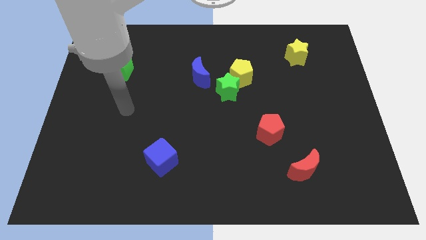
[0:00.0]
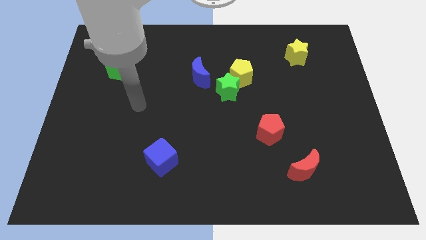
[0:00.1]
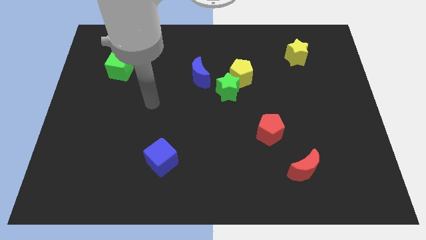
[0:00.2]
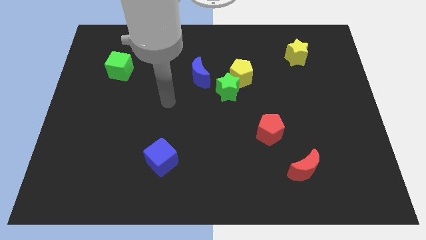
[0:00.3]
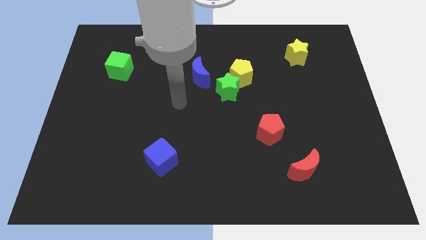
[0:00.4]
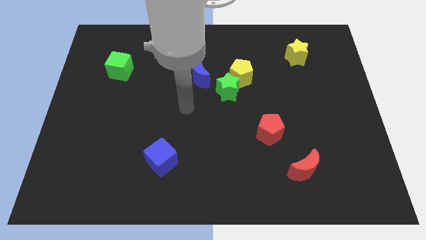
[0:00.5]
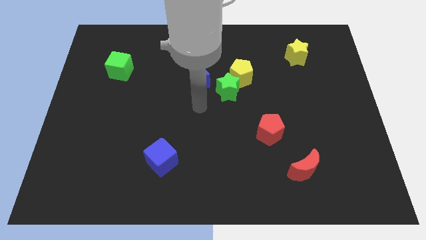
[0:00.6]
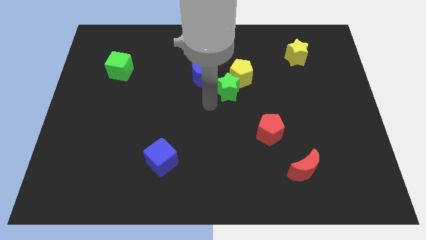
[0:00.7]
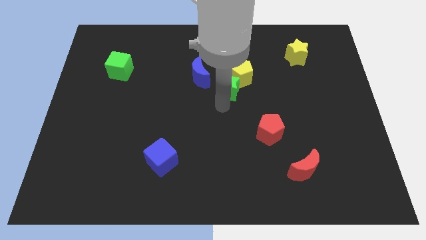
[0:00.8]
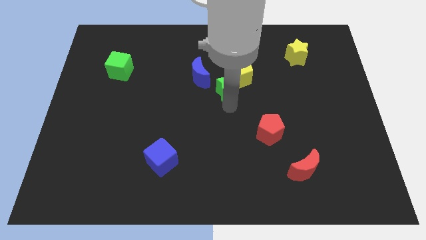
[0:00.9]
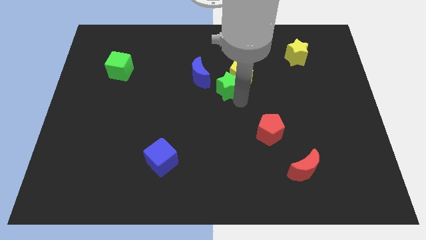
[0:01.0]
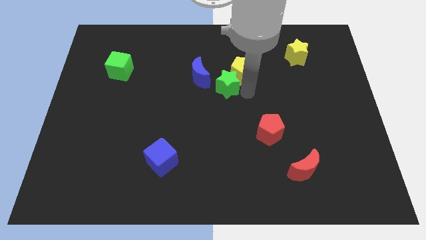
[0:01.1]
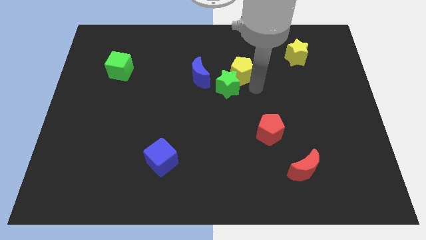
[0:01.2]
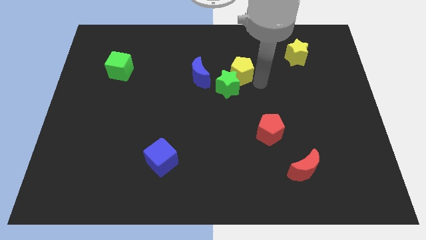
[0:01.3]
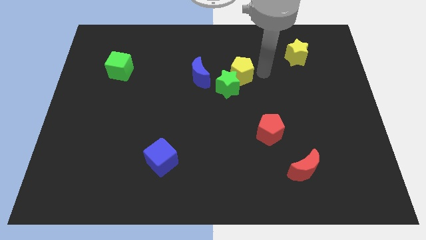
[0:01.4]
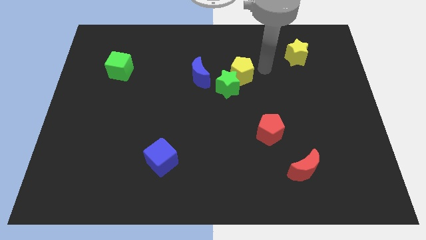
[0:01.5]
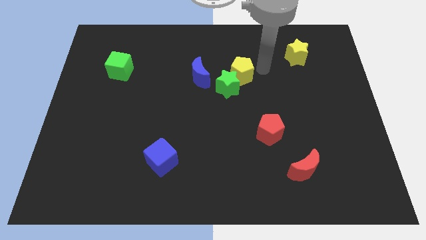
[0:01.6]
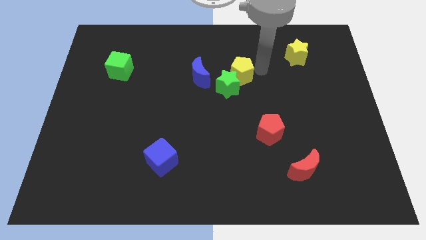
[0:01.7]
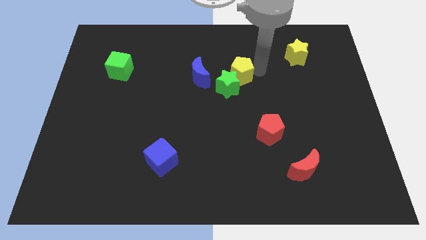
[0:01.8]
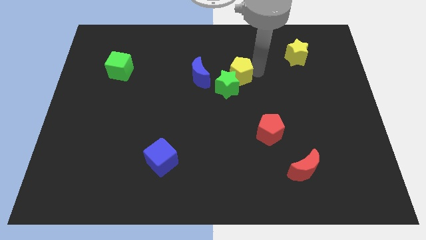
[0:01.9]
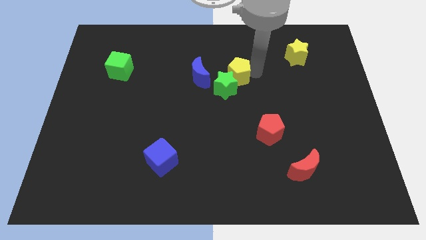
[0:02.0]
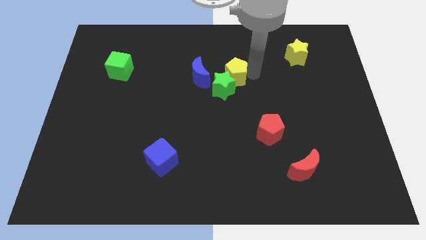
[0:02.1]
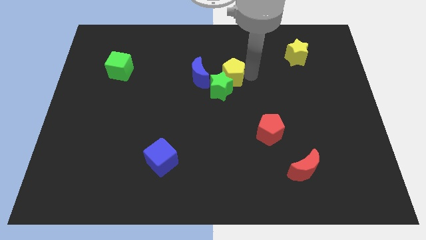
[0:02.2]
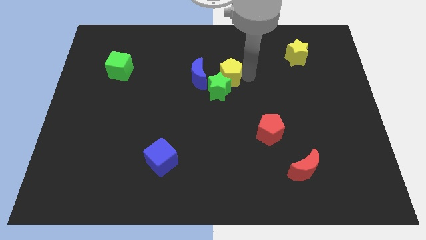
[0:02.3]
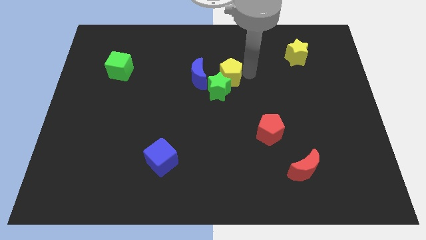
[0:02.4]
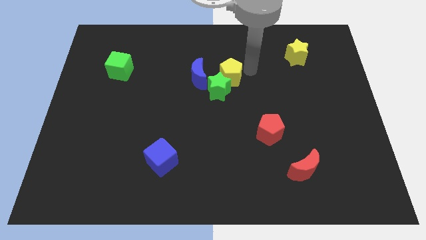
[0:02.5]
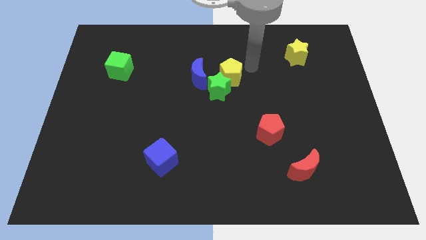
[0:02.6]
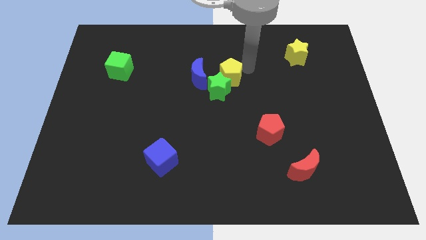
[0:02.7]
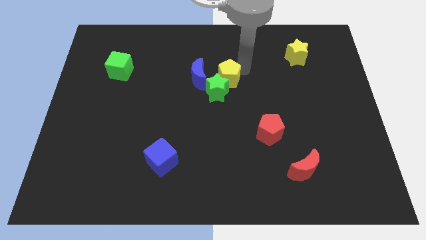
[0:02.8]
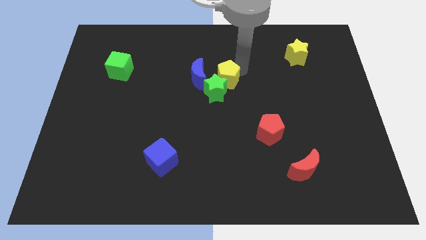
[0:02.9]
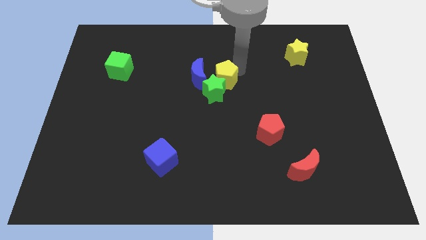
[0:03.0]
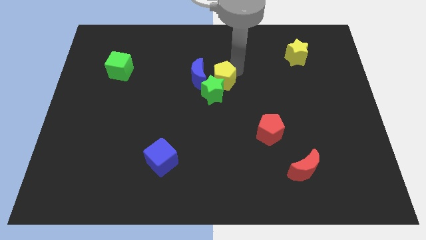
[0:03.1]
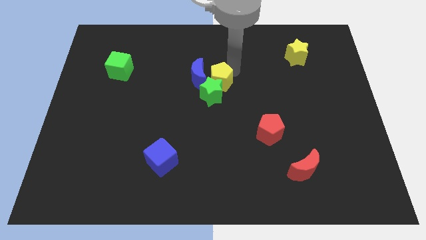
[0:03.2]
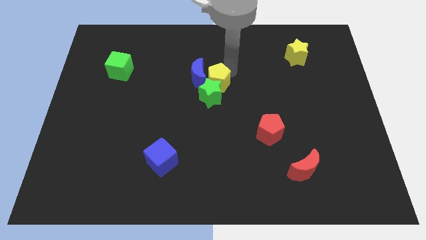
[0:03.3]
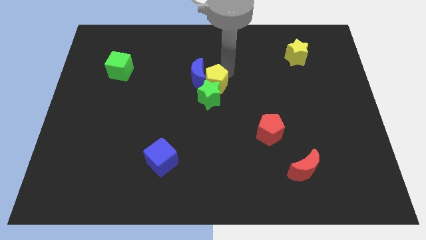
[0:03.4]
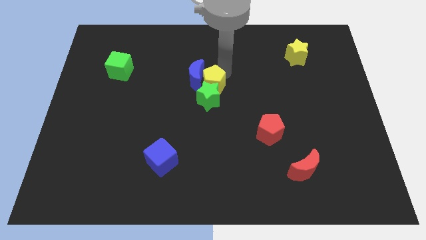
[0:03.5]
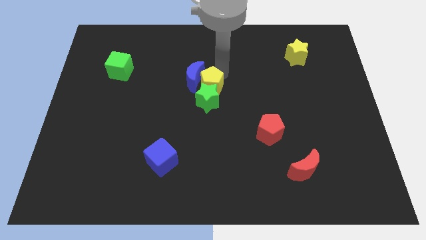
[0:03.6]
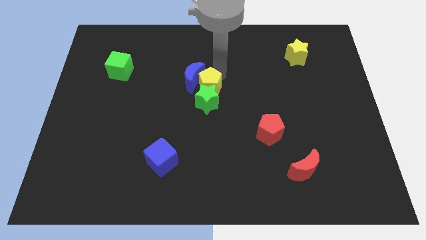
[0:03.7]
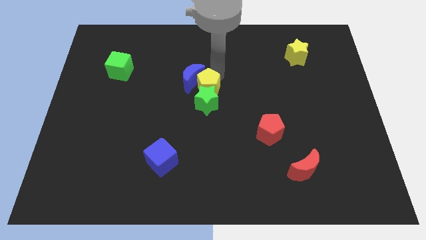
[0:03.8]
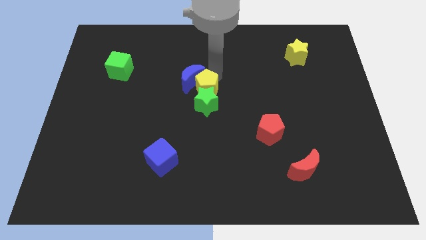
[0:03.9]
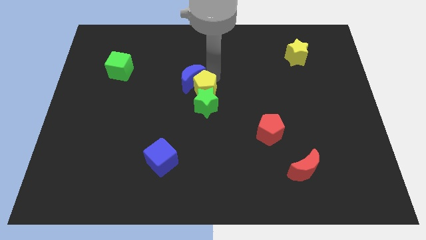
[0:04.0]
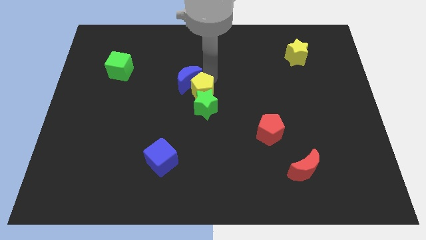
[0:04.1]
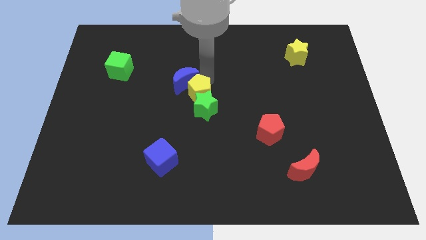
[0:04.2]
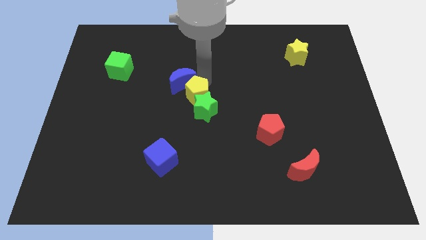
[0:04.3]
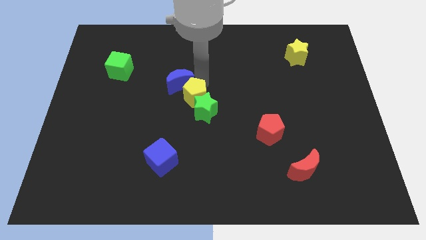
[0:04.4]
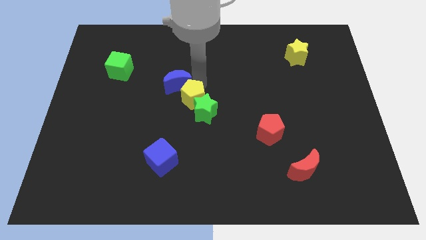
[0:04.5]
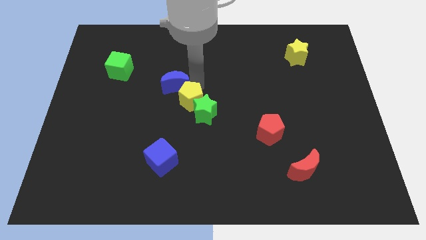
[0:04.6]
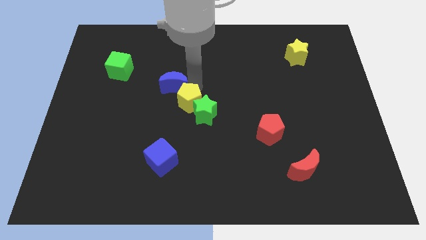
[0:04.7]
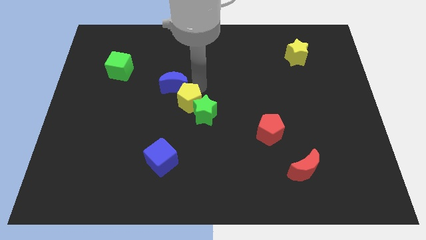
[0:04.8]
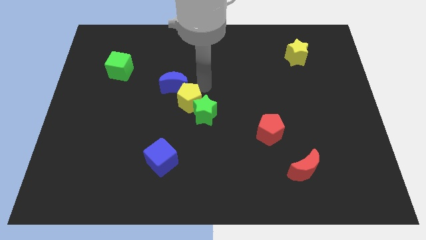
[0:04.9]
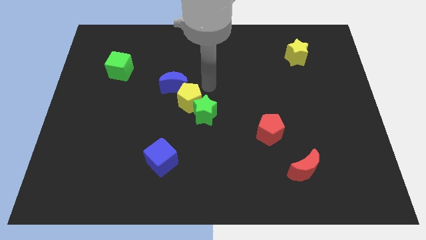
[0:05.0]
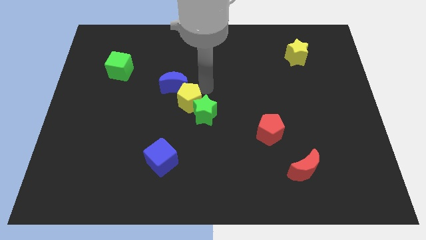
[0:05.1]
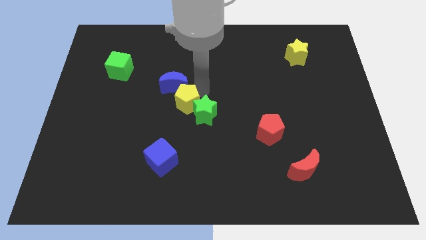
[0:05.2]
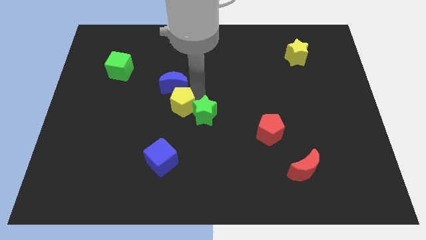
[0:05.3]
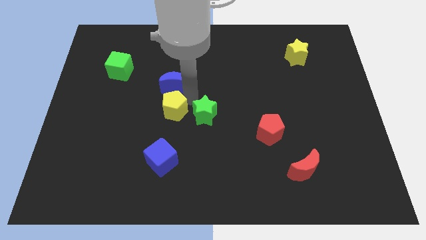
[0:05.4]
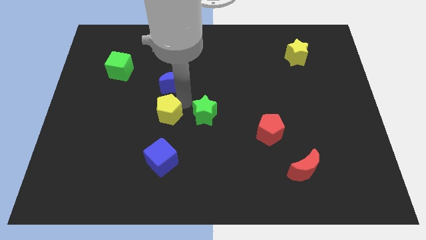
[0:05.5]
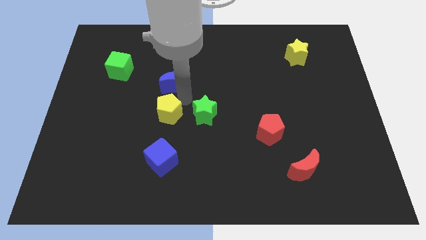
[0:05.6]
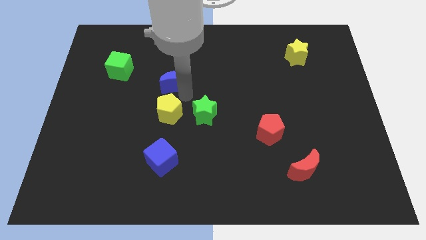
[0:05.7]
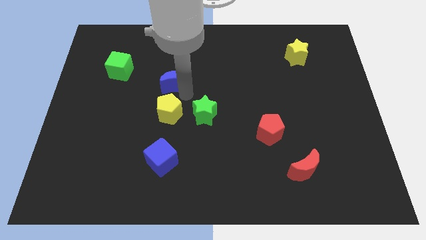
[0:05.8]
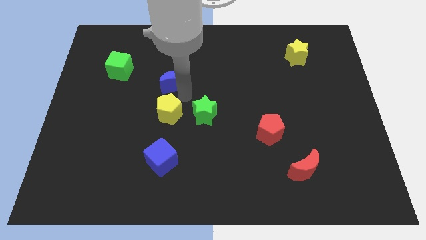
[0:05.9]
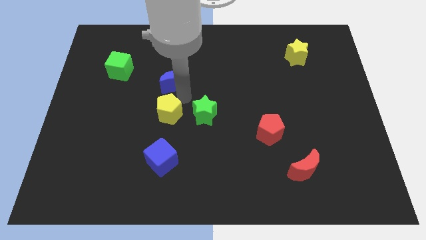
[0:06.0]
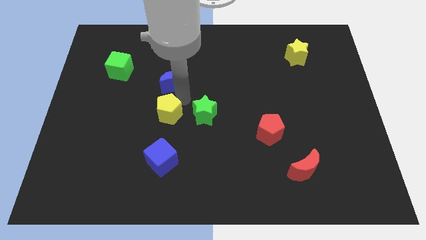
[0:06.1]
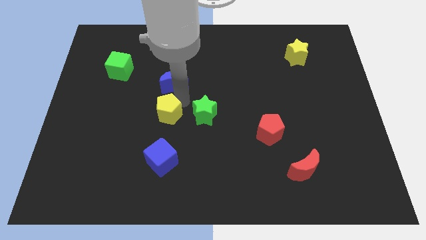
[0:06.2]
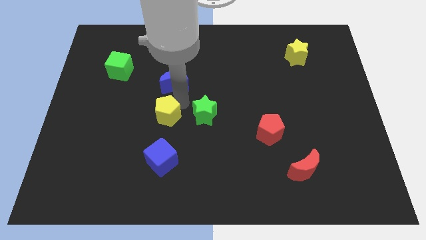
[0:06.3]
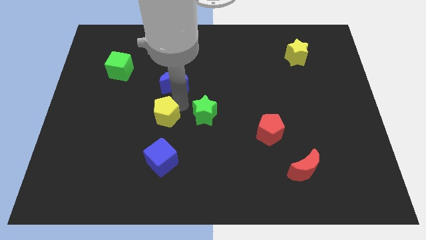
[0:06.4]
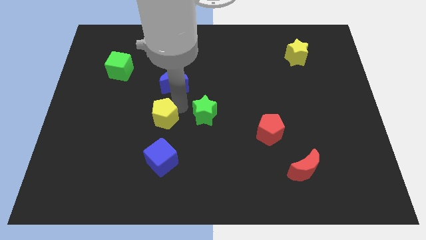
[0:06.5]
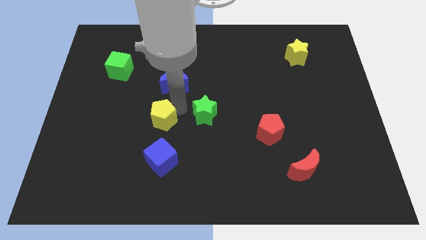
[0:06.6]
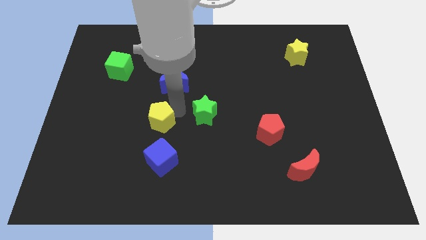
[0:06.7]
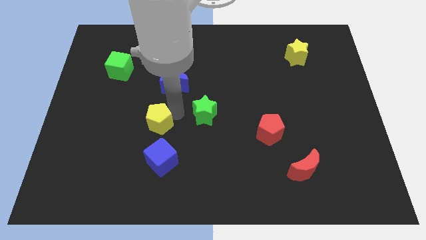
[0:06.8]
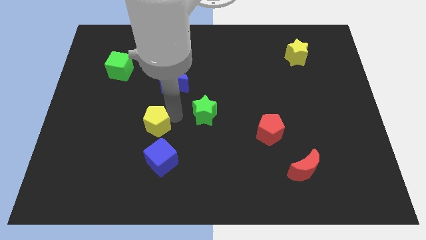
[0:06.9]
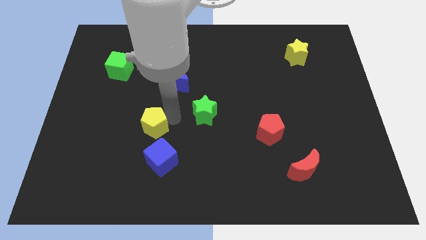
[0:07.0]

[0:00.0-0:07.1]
put the yellow pentagon diagonally up and to the left of the blue cube
